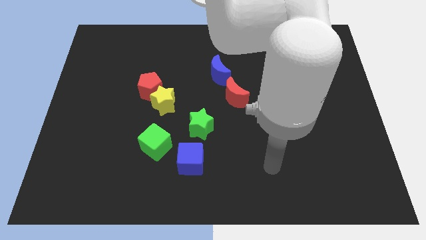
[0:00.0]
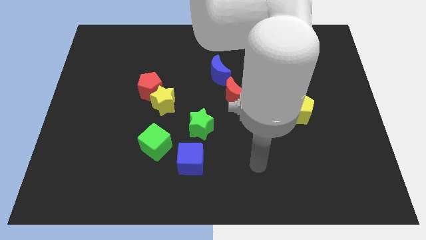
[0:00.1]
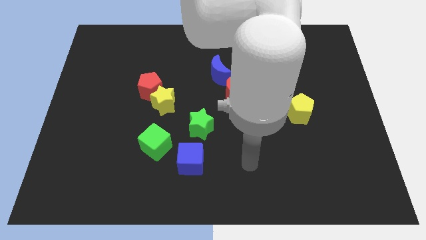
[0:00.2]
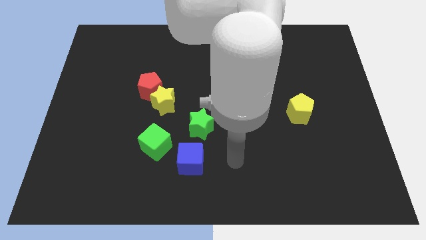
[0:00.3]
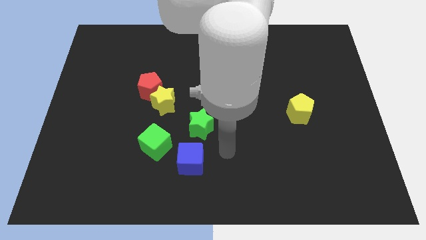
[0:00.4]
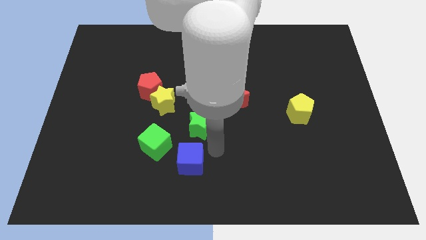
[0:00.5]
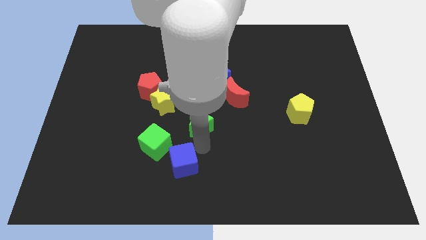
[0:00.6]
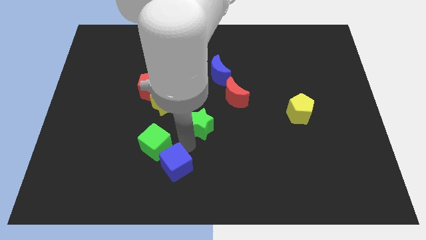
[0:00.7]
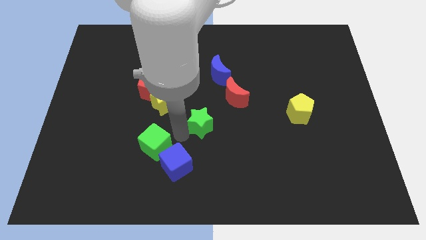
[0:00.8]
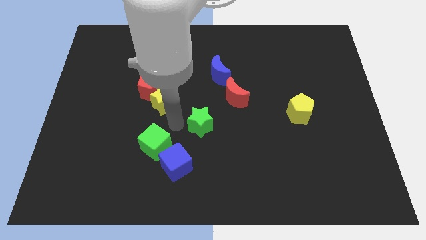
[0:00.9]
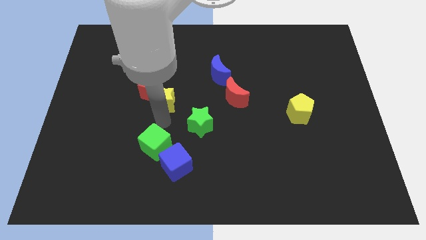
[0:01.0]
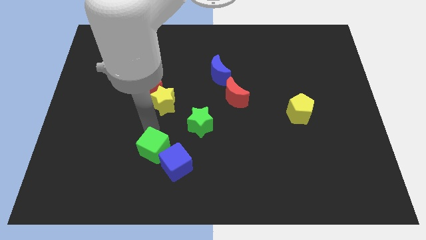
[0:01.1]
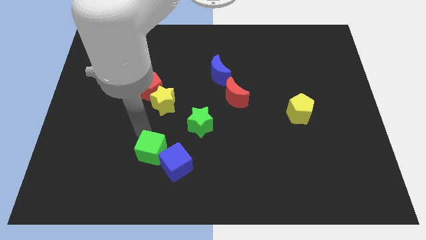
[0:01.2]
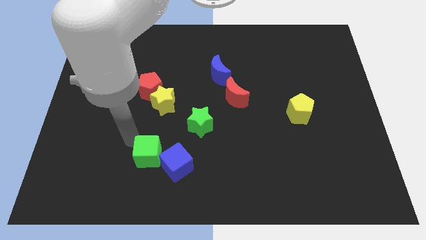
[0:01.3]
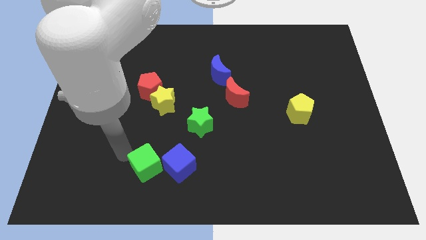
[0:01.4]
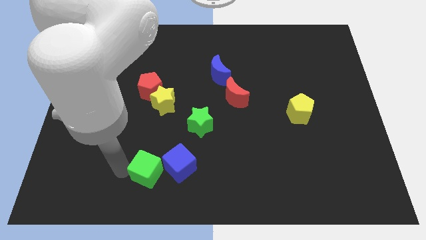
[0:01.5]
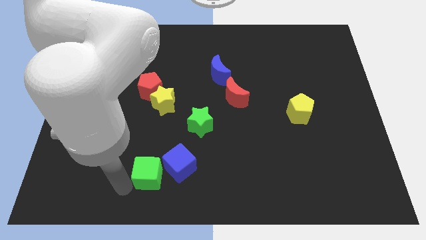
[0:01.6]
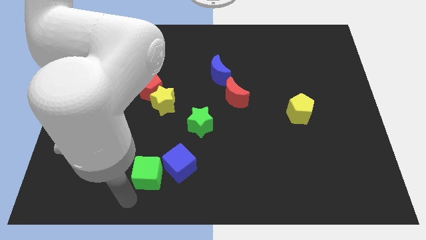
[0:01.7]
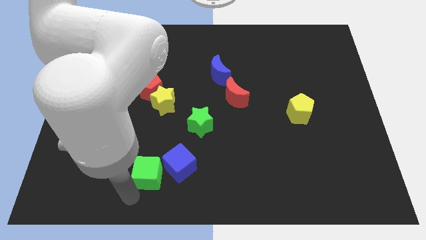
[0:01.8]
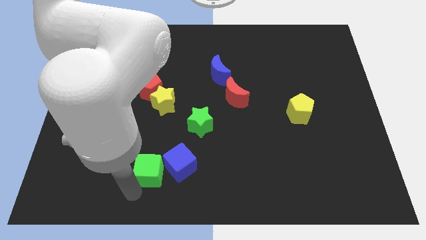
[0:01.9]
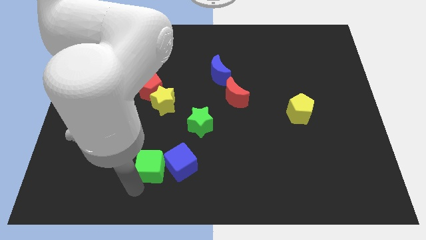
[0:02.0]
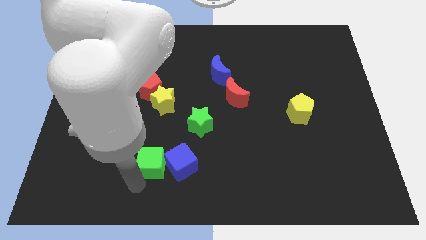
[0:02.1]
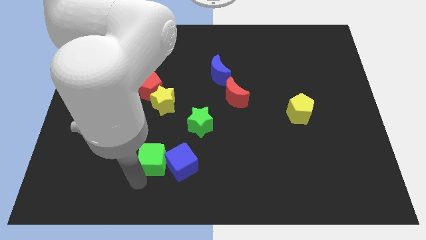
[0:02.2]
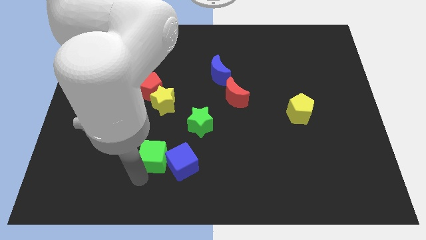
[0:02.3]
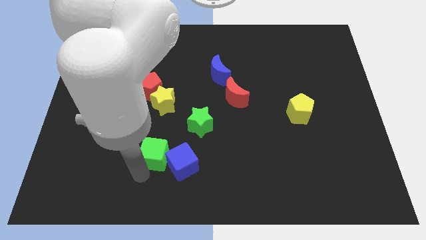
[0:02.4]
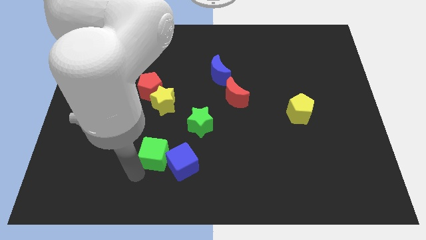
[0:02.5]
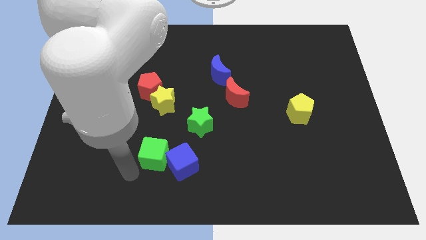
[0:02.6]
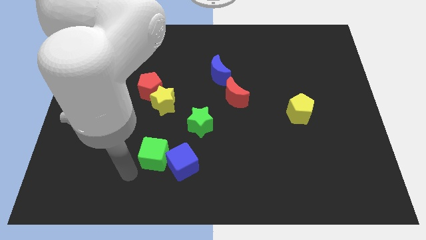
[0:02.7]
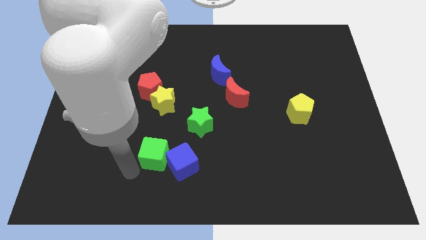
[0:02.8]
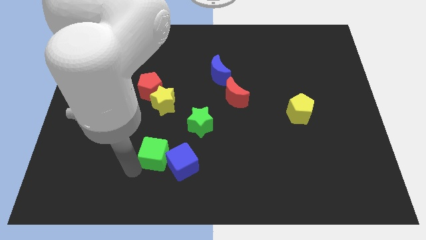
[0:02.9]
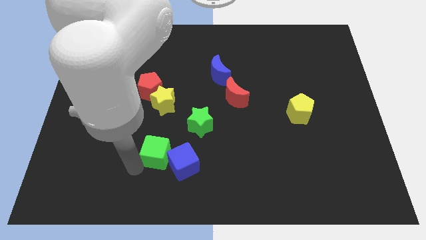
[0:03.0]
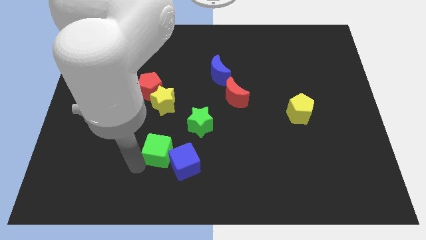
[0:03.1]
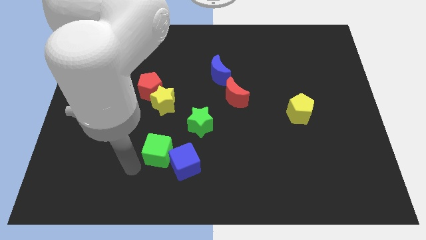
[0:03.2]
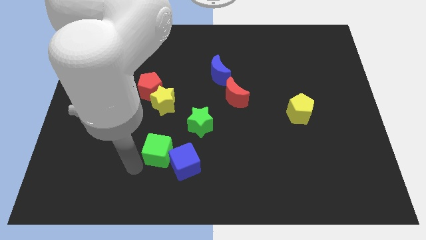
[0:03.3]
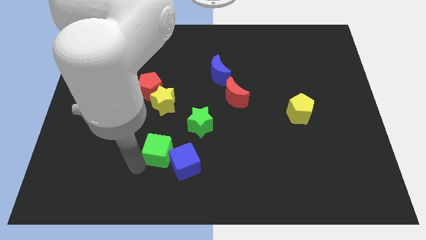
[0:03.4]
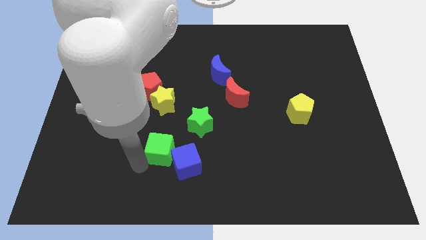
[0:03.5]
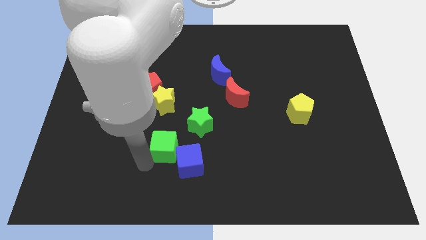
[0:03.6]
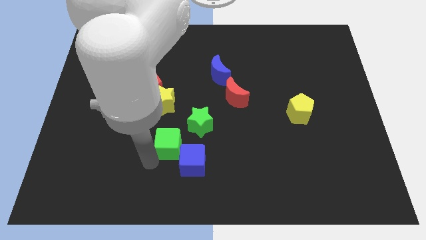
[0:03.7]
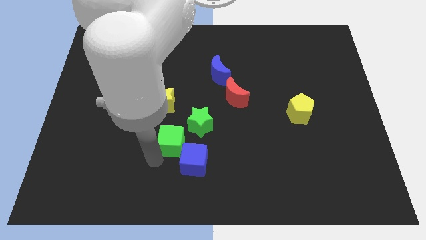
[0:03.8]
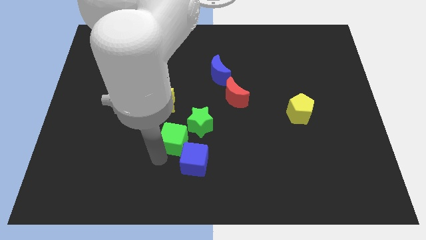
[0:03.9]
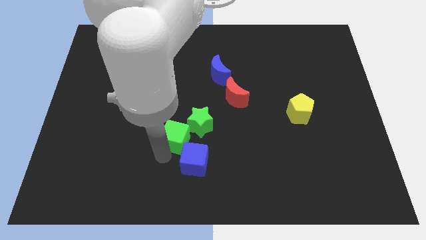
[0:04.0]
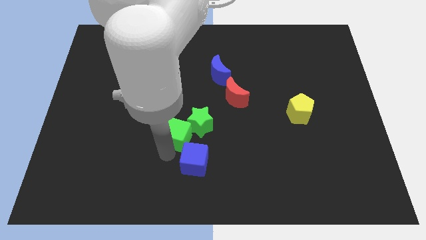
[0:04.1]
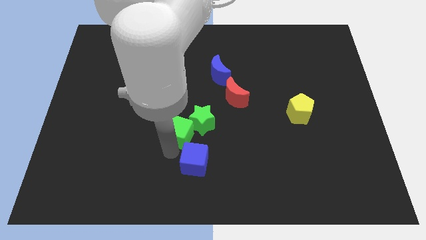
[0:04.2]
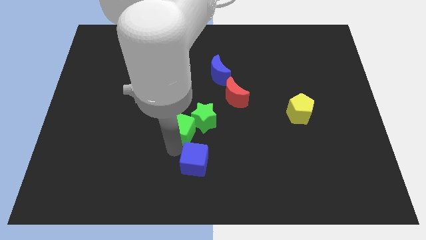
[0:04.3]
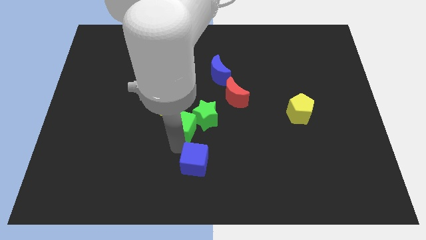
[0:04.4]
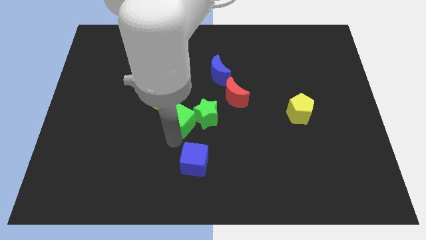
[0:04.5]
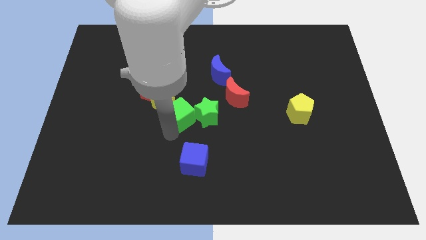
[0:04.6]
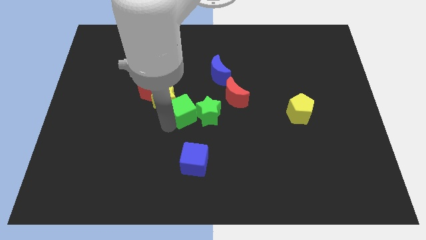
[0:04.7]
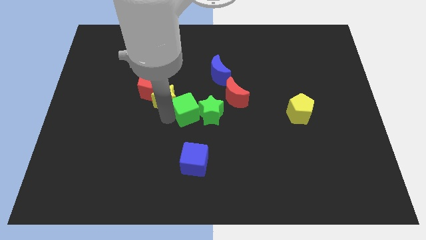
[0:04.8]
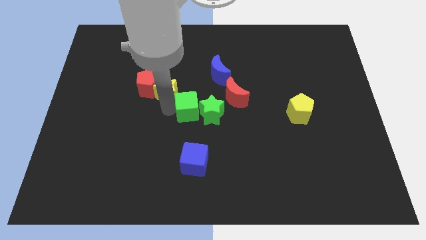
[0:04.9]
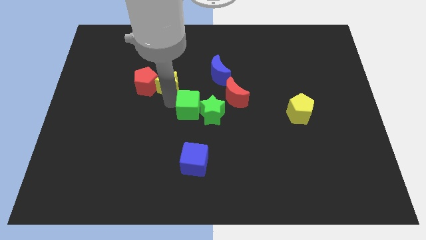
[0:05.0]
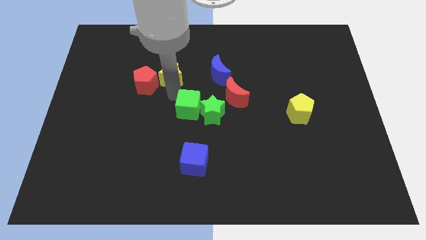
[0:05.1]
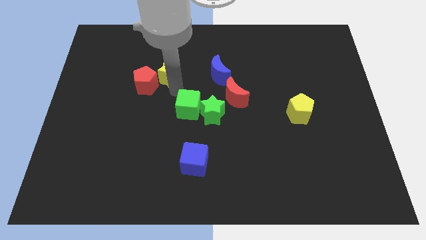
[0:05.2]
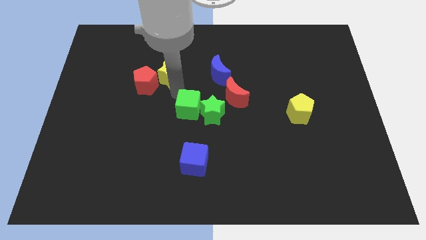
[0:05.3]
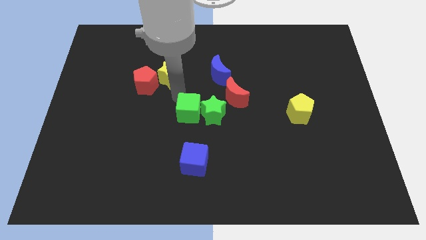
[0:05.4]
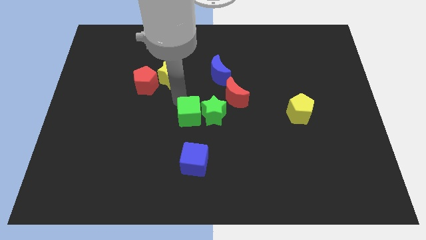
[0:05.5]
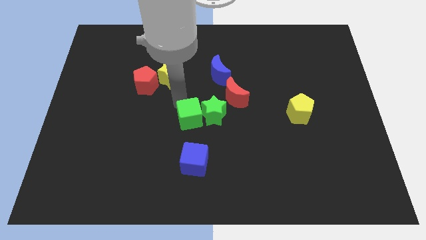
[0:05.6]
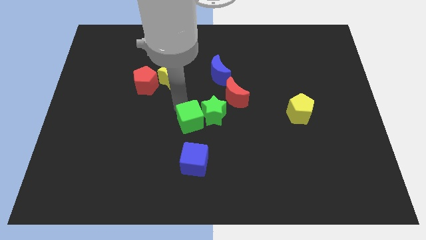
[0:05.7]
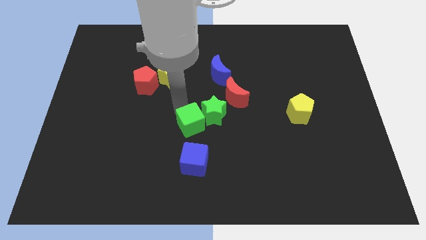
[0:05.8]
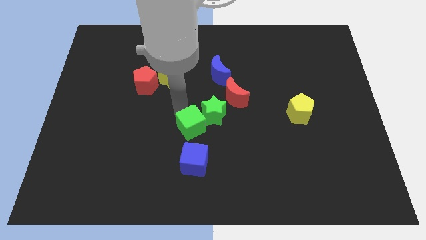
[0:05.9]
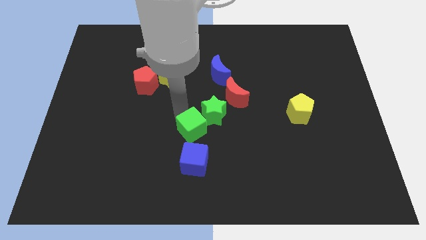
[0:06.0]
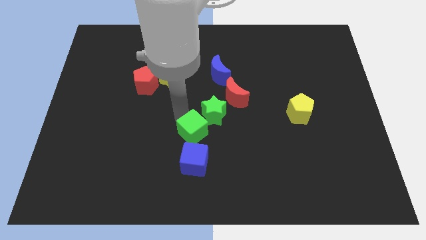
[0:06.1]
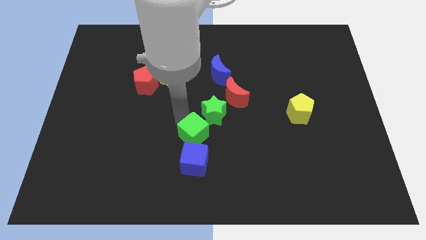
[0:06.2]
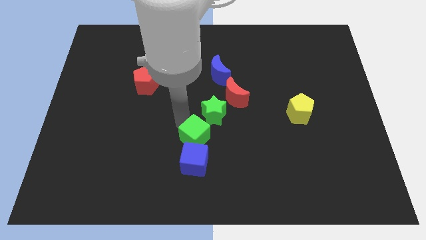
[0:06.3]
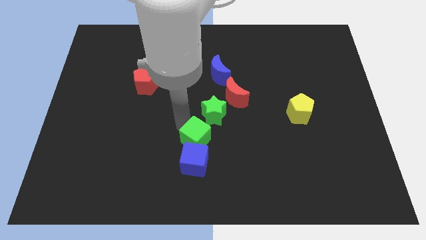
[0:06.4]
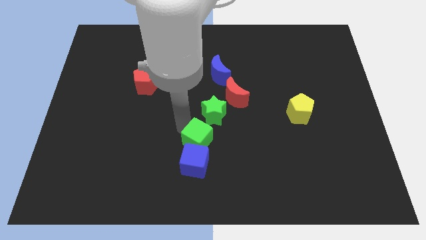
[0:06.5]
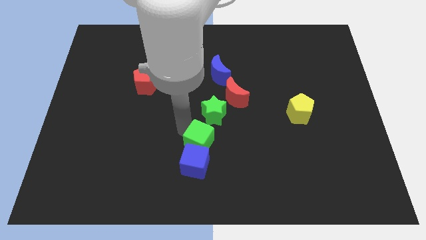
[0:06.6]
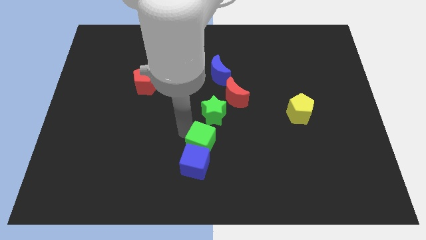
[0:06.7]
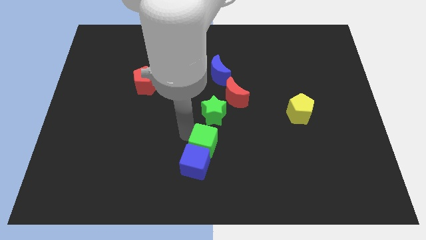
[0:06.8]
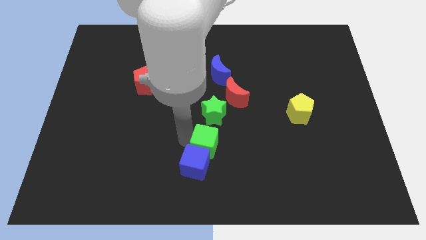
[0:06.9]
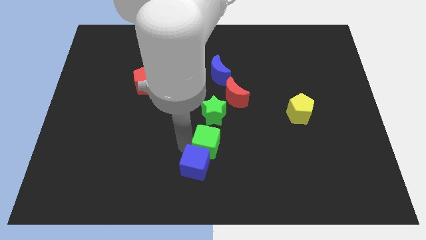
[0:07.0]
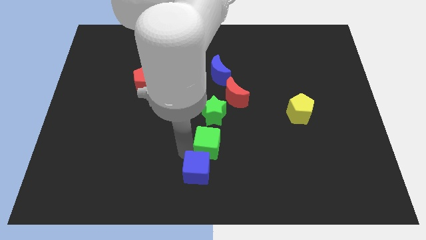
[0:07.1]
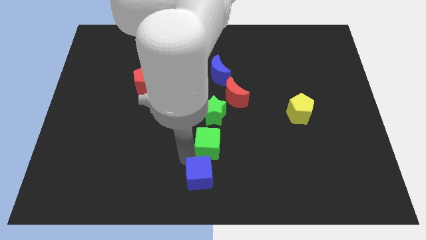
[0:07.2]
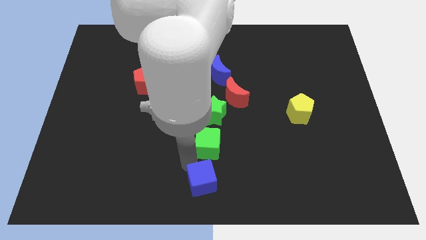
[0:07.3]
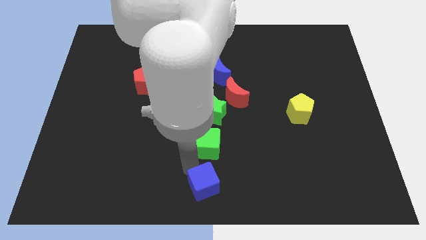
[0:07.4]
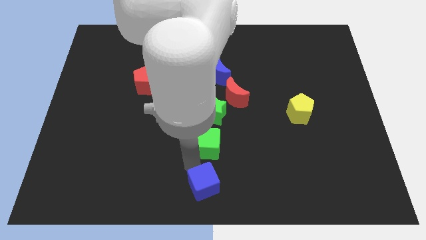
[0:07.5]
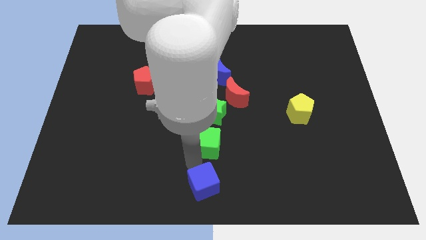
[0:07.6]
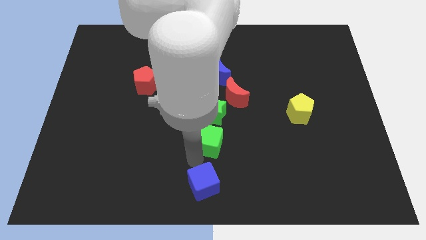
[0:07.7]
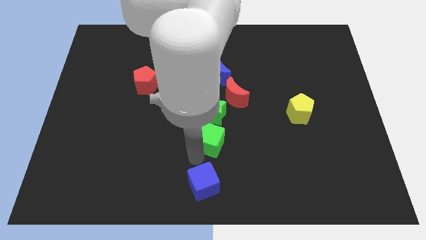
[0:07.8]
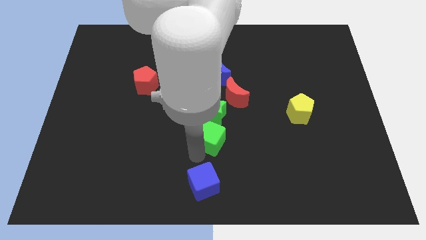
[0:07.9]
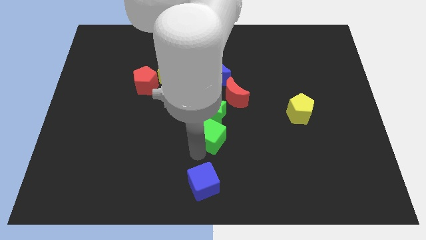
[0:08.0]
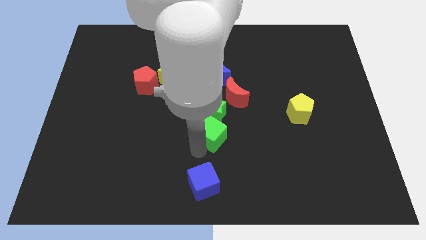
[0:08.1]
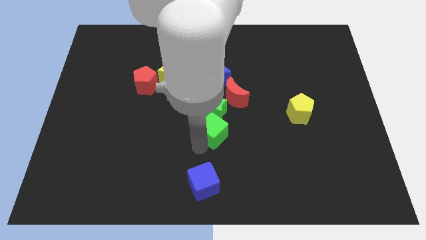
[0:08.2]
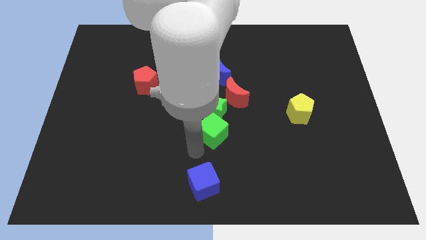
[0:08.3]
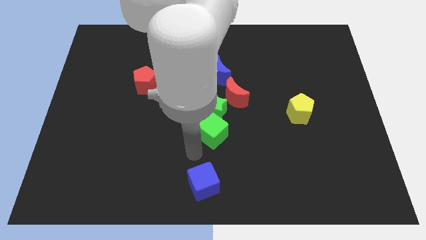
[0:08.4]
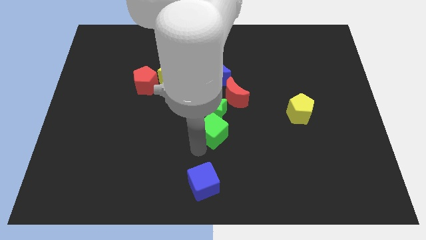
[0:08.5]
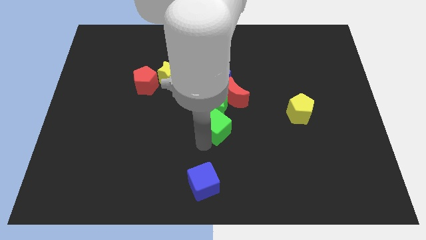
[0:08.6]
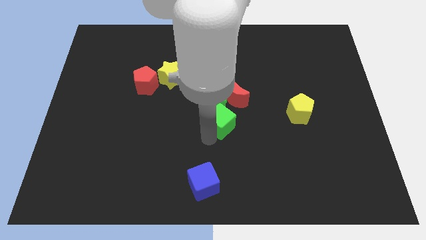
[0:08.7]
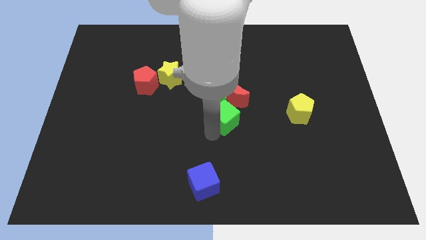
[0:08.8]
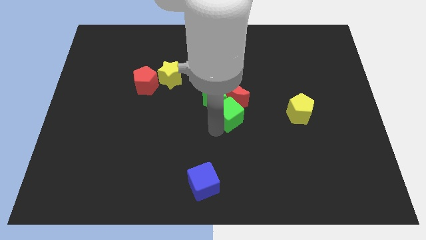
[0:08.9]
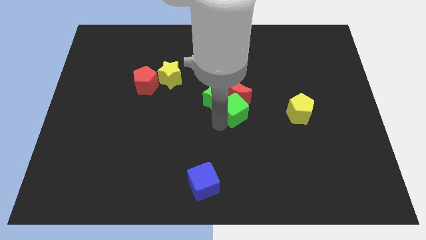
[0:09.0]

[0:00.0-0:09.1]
push the green cube to the bottom right of the red moon
